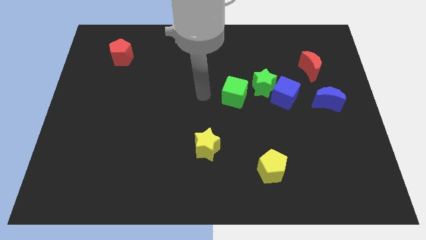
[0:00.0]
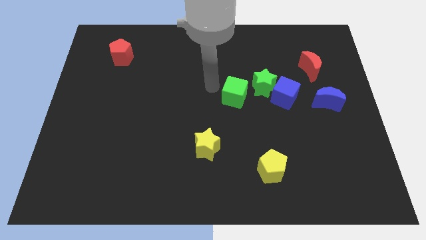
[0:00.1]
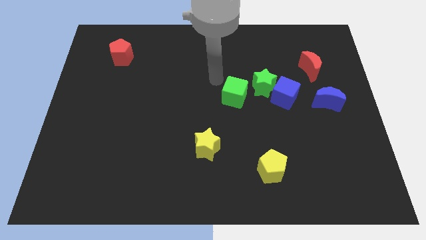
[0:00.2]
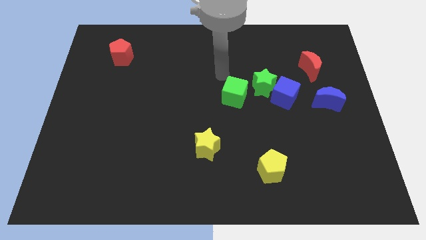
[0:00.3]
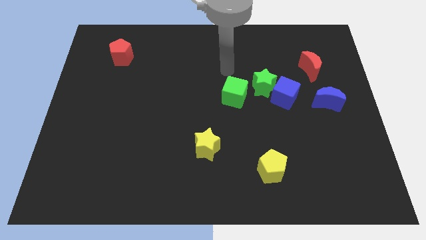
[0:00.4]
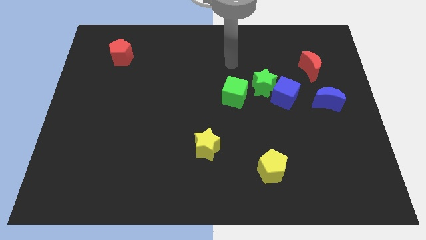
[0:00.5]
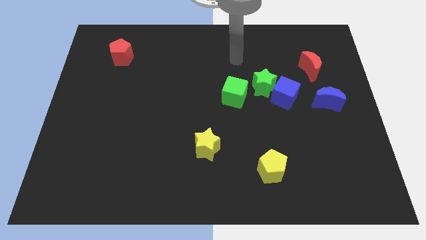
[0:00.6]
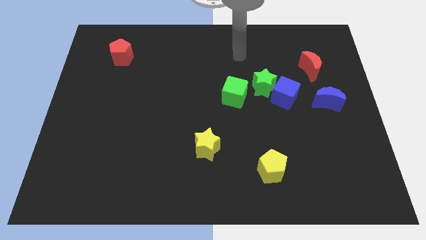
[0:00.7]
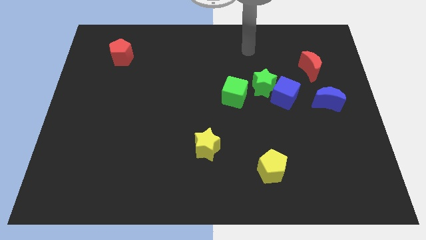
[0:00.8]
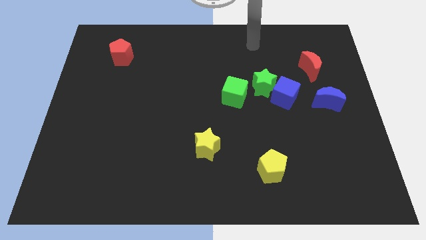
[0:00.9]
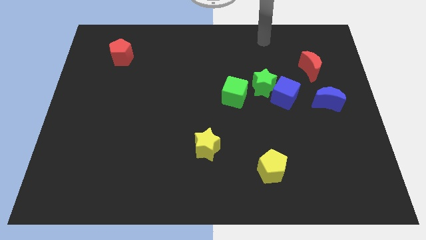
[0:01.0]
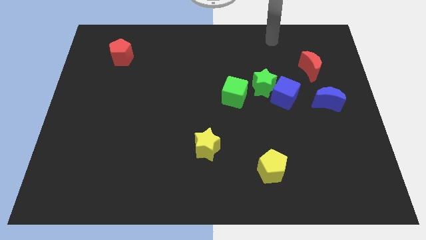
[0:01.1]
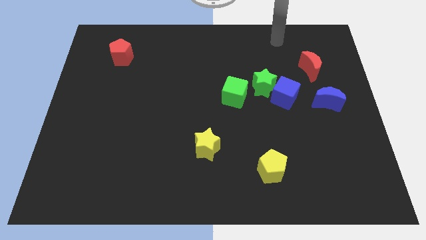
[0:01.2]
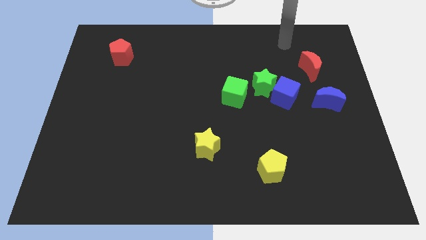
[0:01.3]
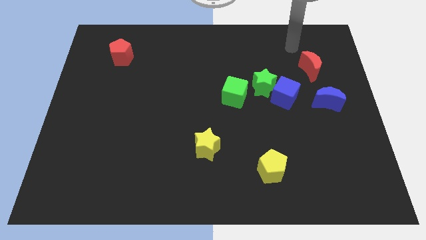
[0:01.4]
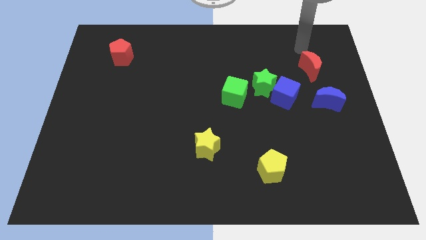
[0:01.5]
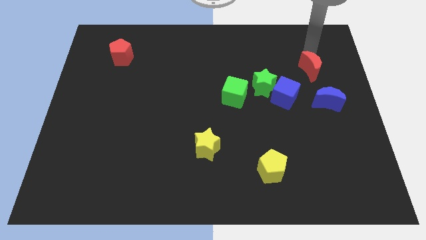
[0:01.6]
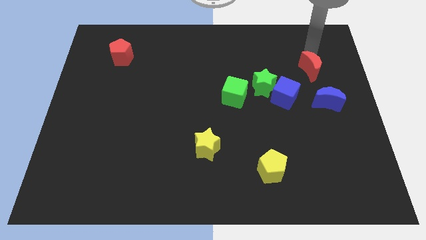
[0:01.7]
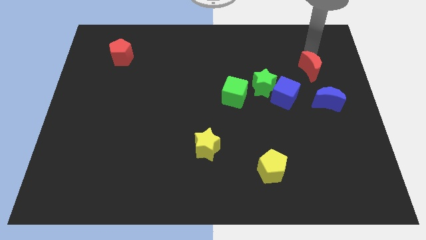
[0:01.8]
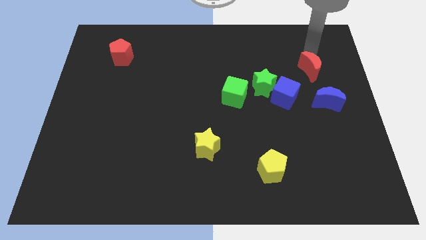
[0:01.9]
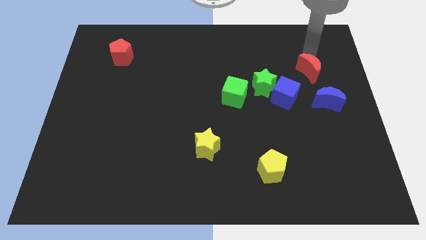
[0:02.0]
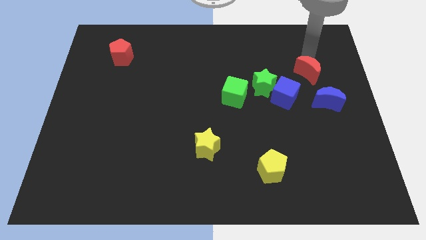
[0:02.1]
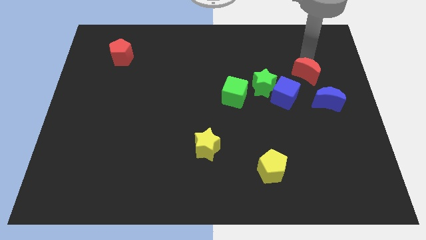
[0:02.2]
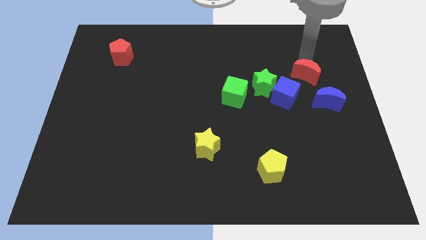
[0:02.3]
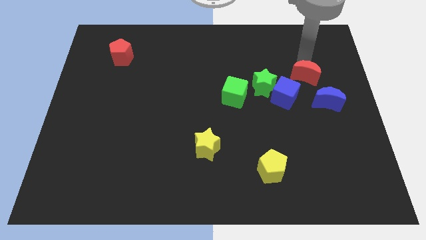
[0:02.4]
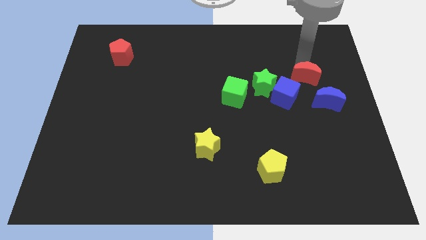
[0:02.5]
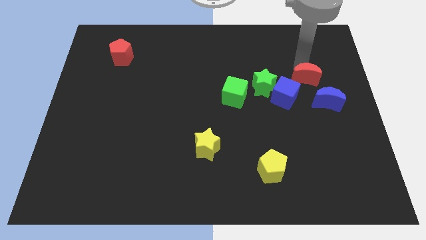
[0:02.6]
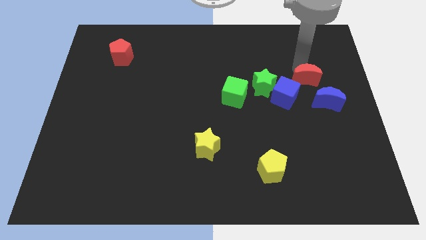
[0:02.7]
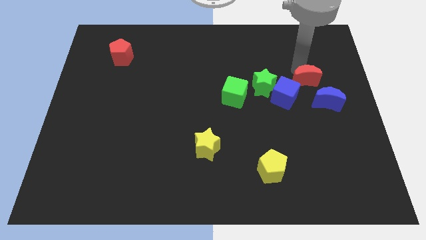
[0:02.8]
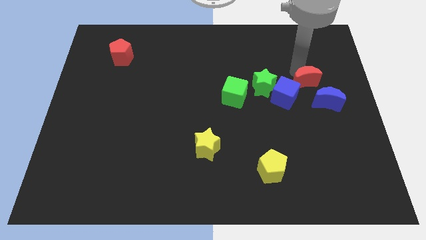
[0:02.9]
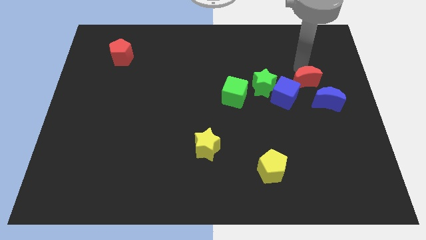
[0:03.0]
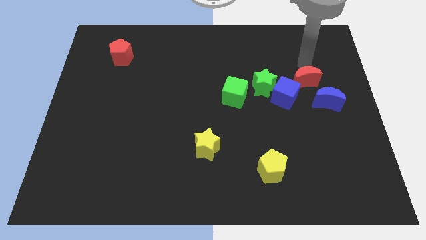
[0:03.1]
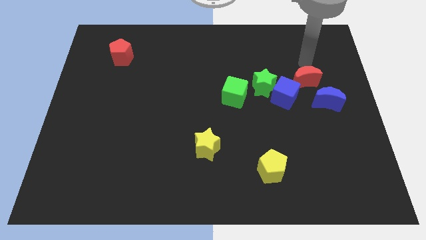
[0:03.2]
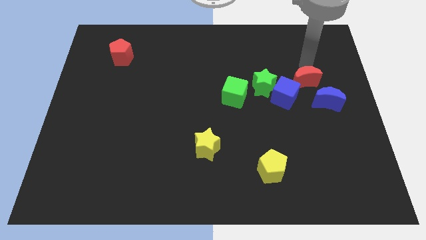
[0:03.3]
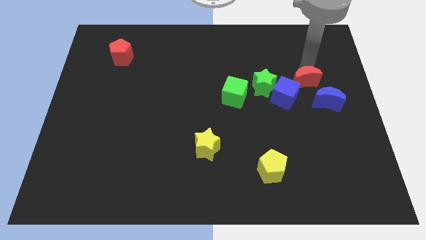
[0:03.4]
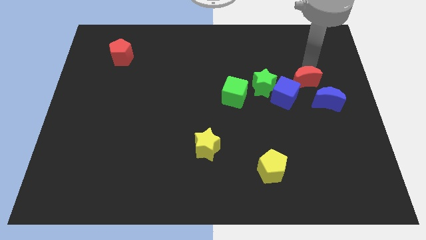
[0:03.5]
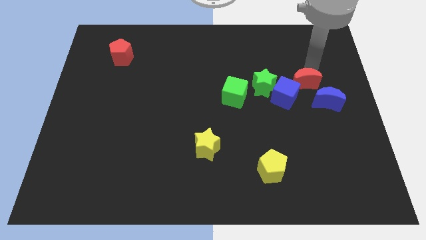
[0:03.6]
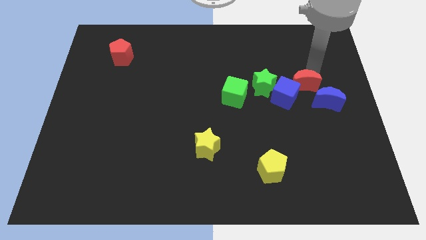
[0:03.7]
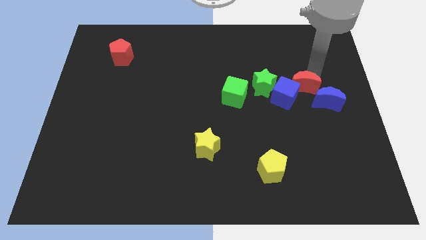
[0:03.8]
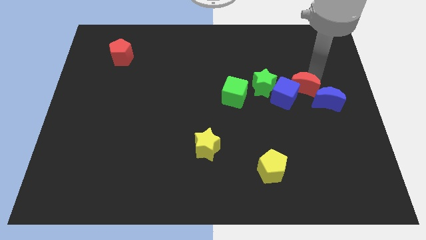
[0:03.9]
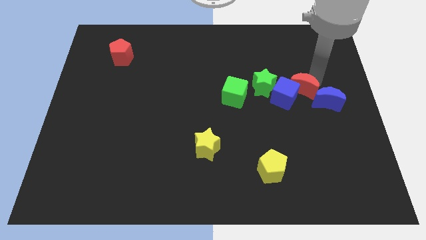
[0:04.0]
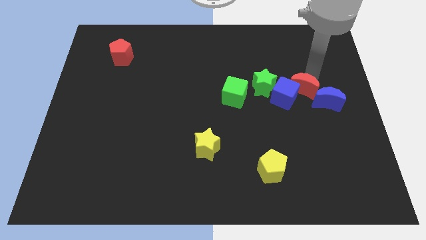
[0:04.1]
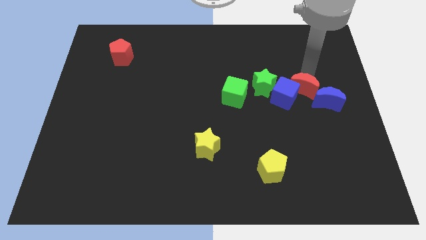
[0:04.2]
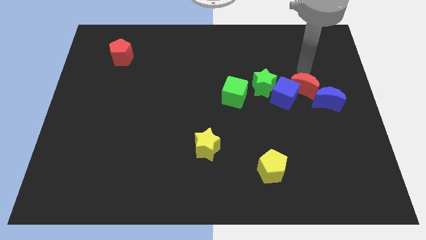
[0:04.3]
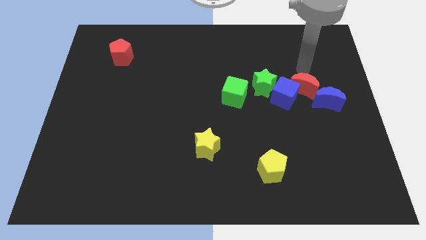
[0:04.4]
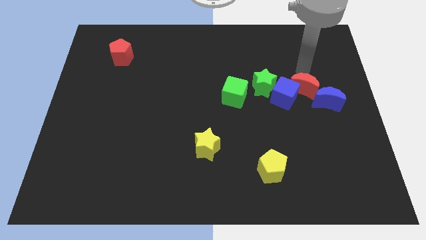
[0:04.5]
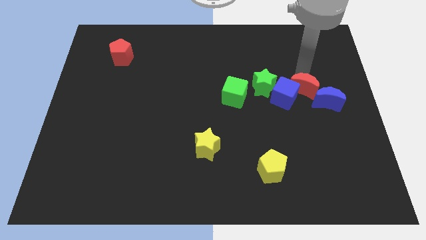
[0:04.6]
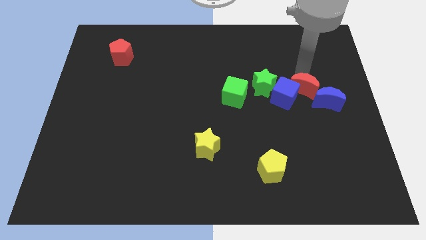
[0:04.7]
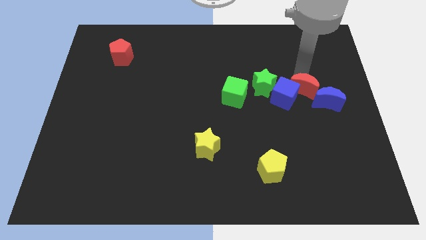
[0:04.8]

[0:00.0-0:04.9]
push the red moon a little downwards and left diagonally

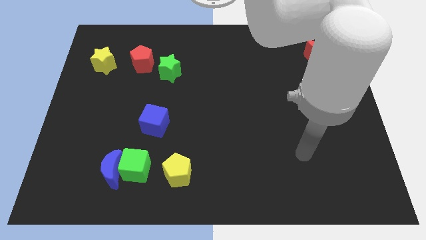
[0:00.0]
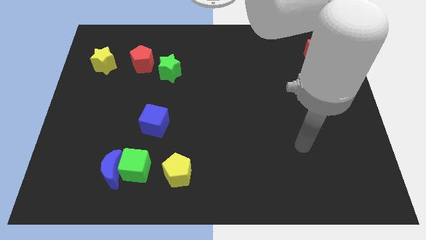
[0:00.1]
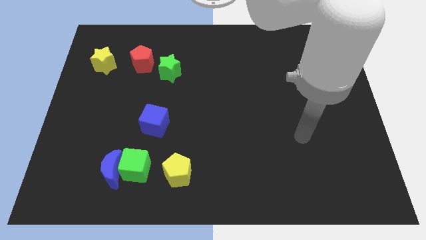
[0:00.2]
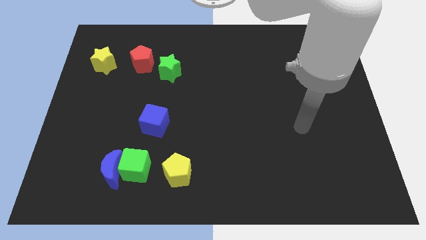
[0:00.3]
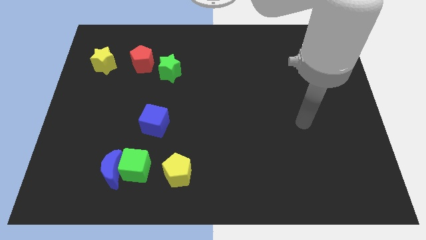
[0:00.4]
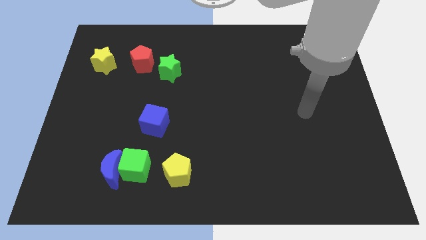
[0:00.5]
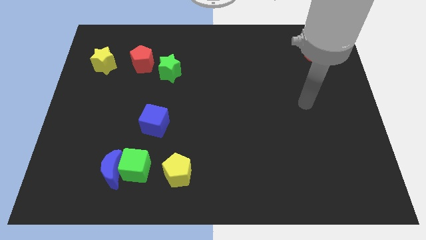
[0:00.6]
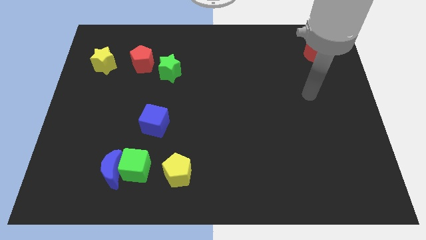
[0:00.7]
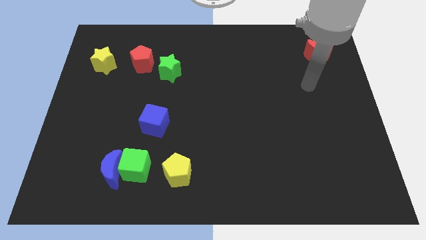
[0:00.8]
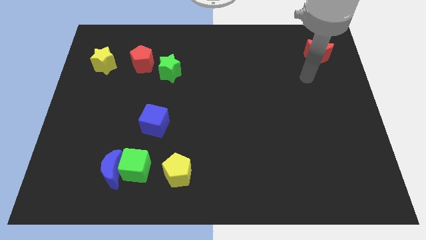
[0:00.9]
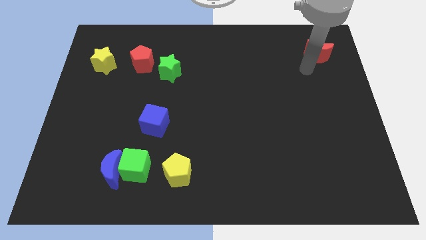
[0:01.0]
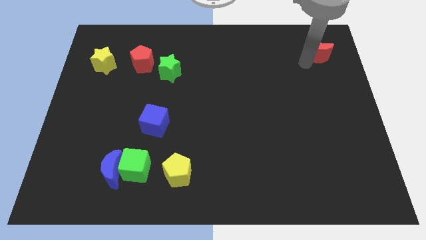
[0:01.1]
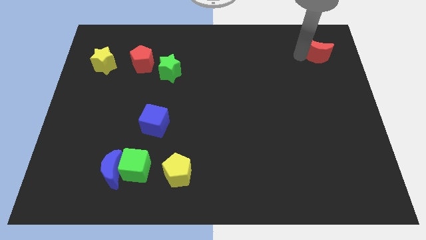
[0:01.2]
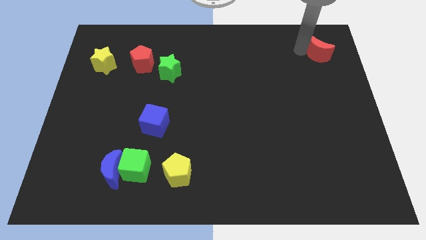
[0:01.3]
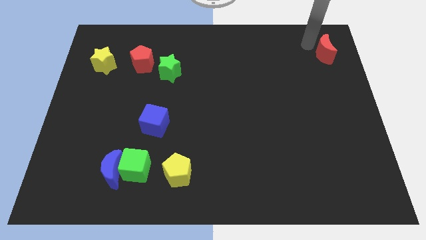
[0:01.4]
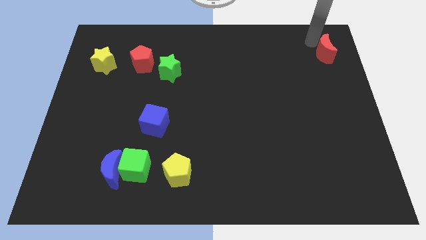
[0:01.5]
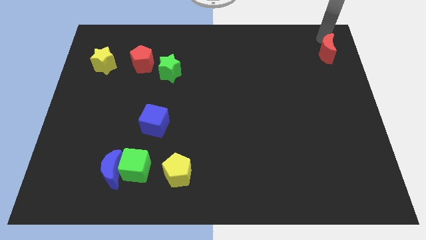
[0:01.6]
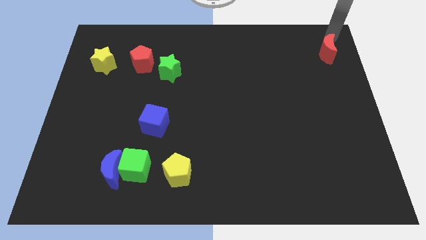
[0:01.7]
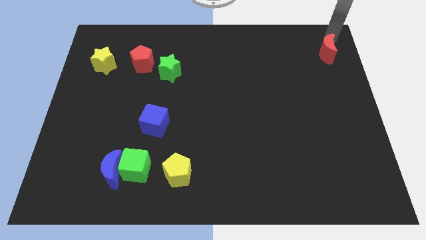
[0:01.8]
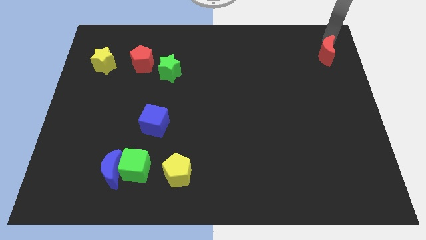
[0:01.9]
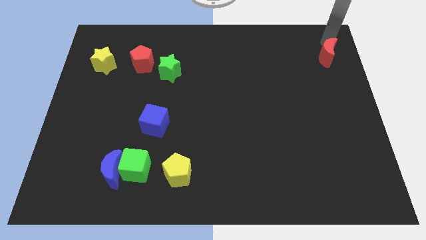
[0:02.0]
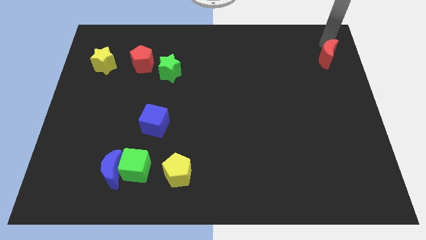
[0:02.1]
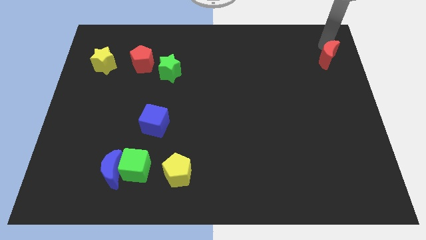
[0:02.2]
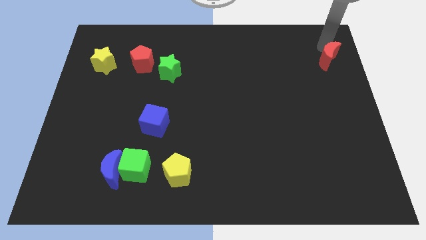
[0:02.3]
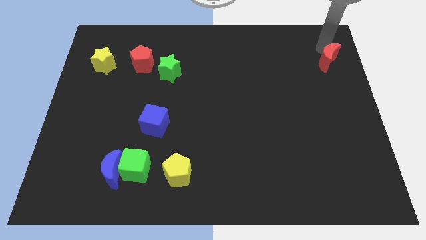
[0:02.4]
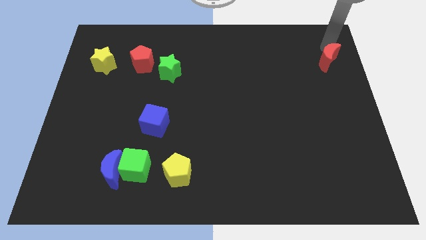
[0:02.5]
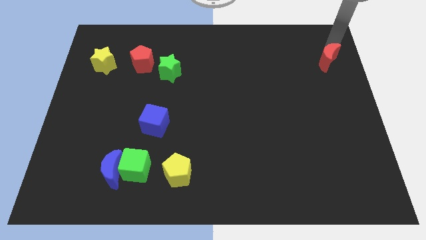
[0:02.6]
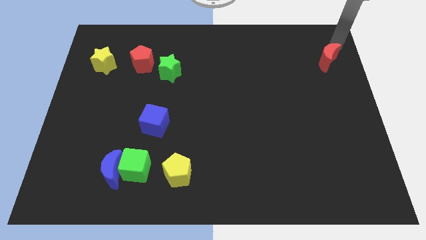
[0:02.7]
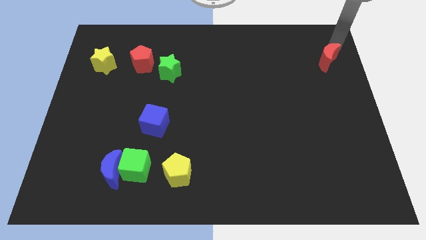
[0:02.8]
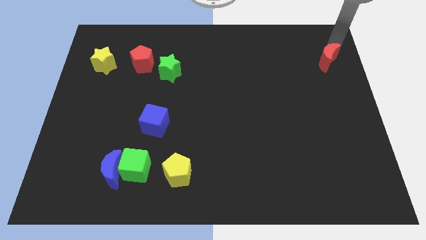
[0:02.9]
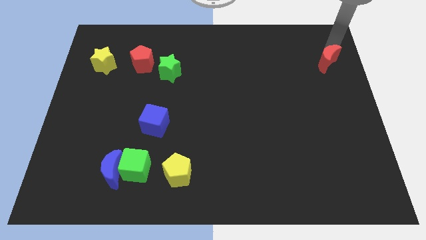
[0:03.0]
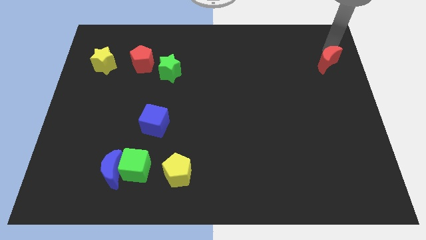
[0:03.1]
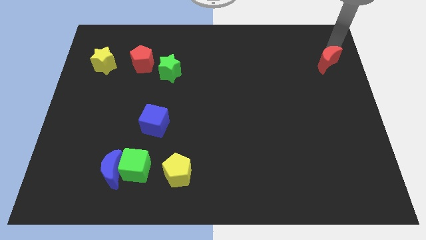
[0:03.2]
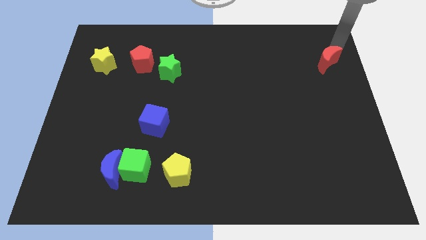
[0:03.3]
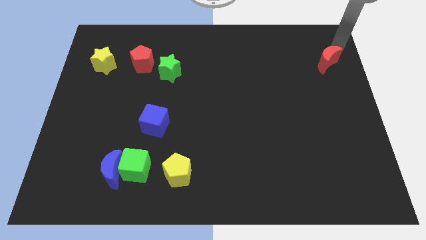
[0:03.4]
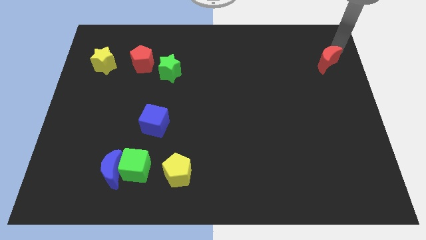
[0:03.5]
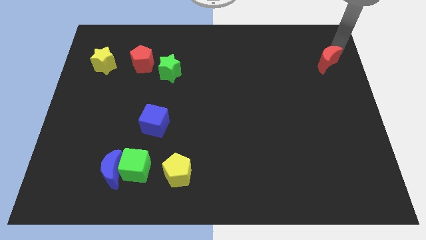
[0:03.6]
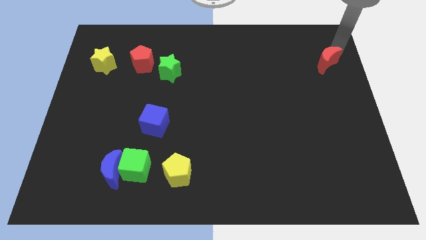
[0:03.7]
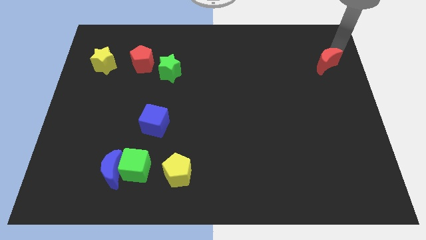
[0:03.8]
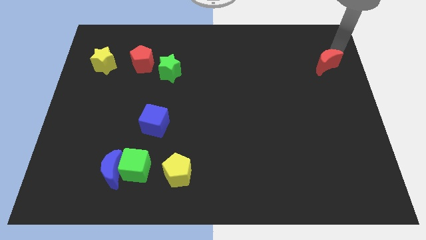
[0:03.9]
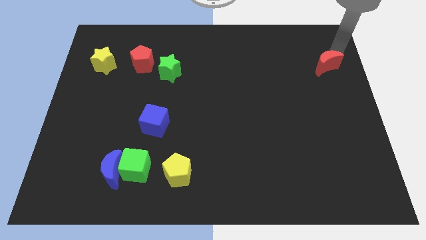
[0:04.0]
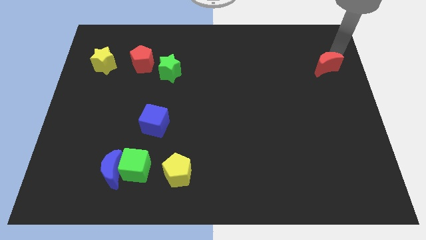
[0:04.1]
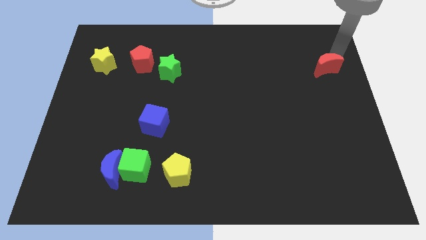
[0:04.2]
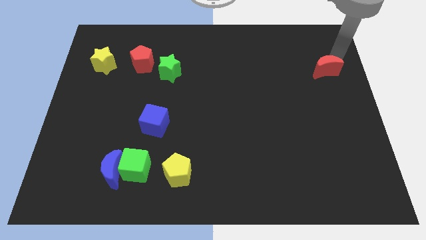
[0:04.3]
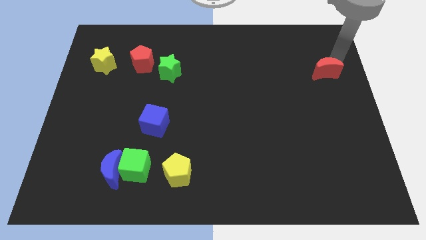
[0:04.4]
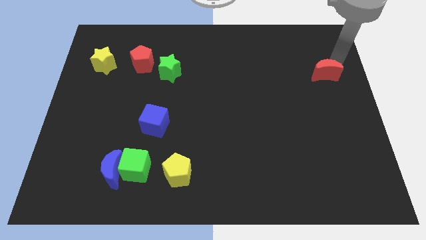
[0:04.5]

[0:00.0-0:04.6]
slide the red moon a little bit down
